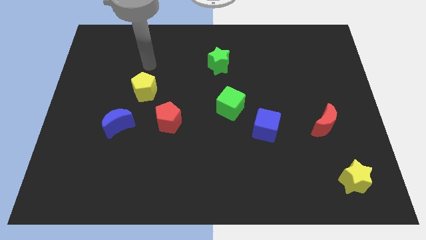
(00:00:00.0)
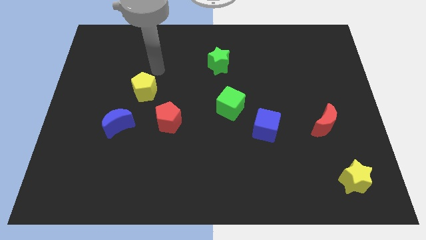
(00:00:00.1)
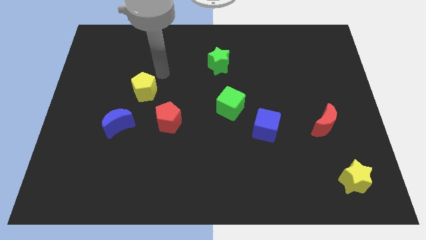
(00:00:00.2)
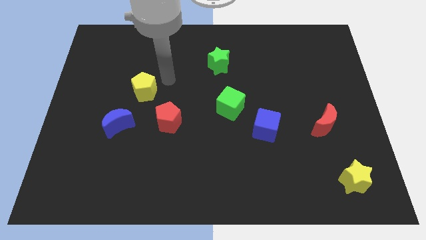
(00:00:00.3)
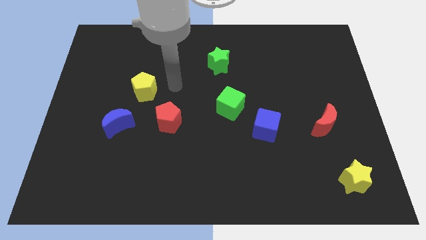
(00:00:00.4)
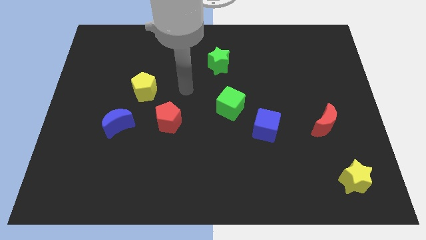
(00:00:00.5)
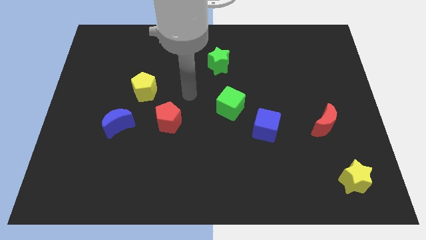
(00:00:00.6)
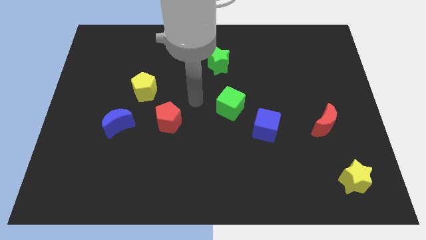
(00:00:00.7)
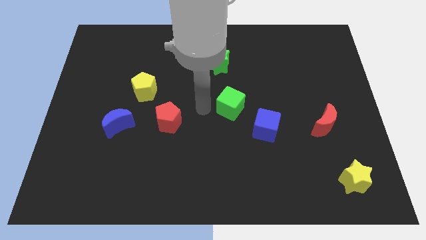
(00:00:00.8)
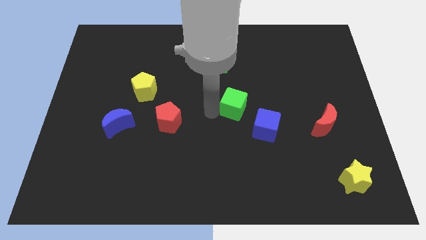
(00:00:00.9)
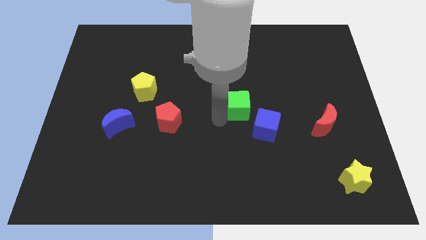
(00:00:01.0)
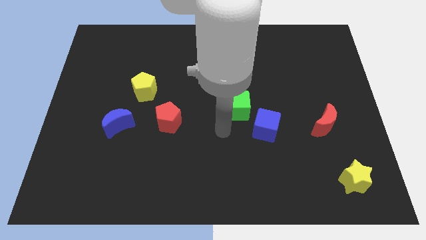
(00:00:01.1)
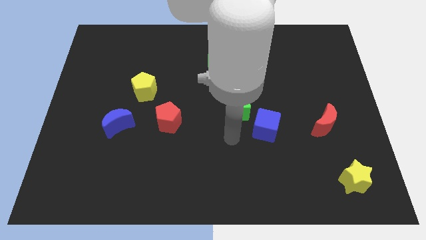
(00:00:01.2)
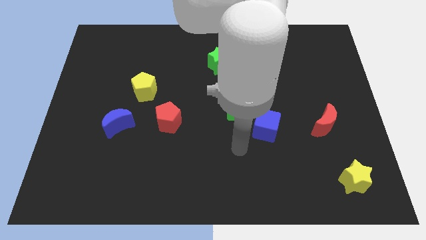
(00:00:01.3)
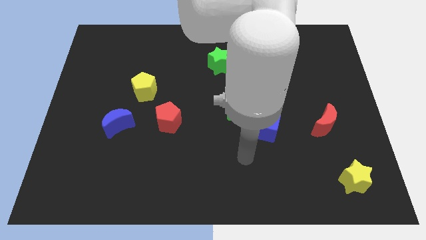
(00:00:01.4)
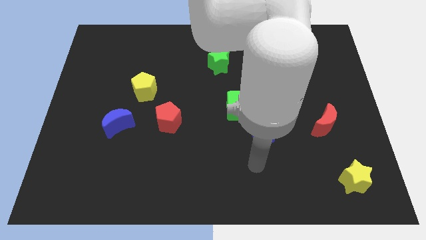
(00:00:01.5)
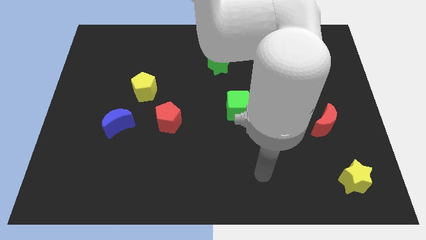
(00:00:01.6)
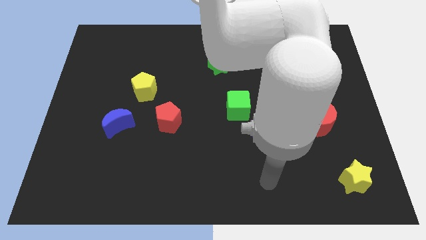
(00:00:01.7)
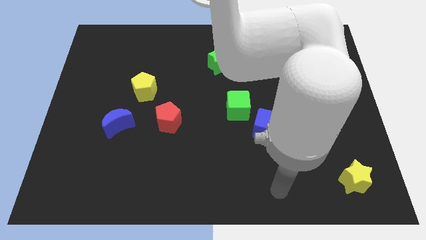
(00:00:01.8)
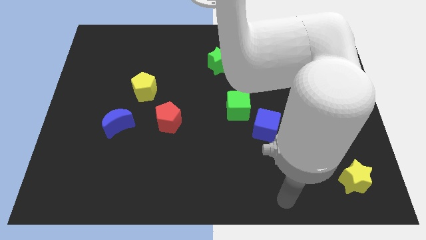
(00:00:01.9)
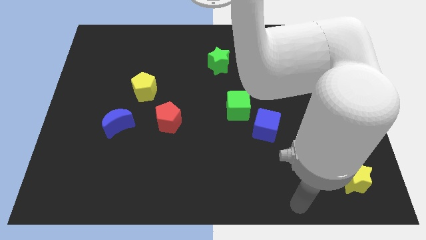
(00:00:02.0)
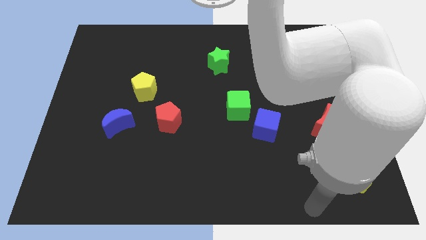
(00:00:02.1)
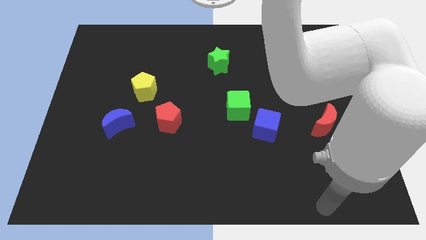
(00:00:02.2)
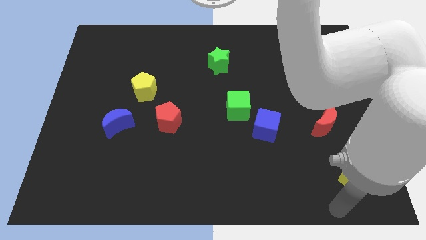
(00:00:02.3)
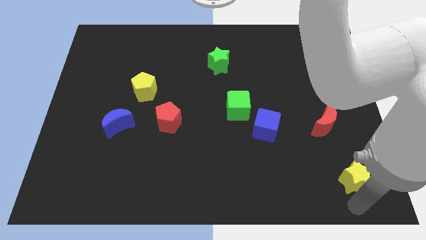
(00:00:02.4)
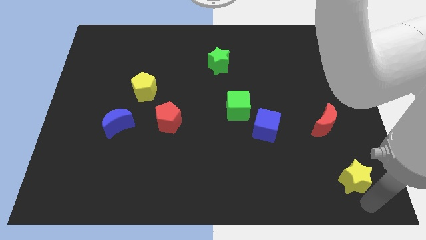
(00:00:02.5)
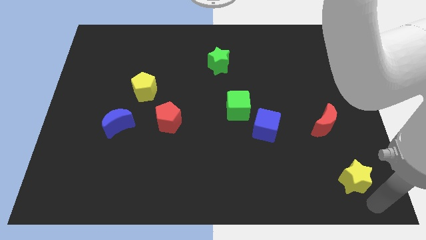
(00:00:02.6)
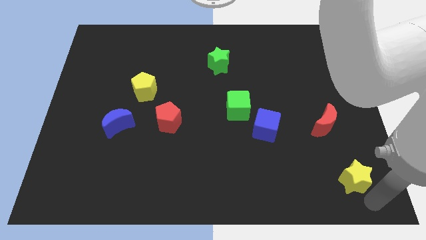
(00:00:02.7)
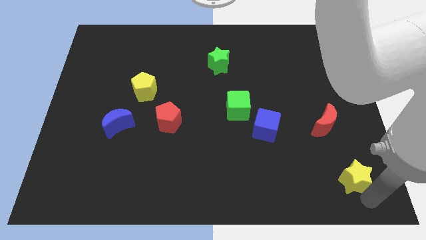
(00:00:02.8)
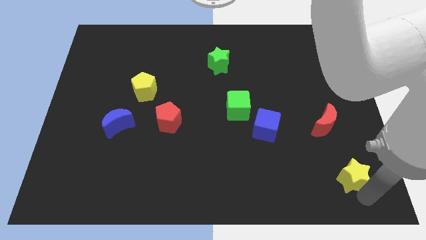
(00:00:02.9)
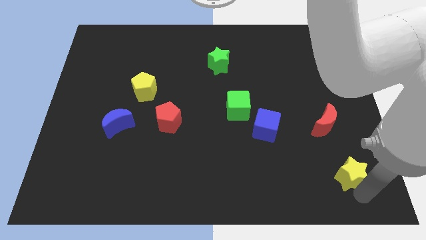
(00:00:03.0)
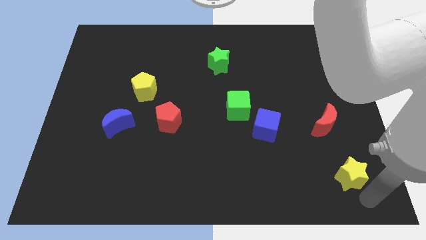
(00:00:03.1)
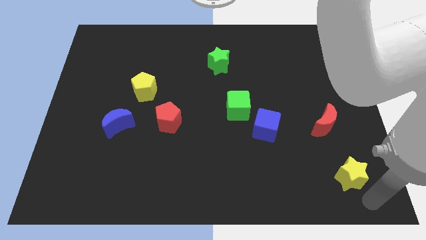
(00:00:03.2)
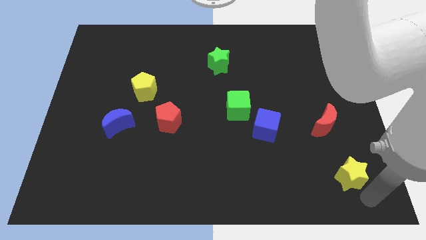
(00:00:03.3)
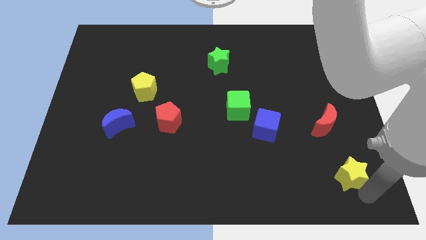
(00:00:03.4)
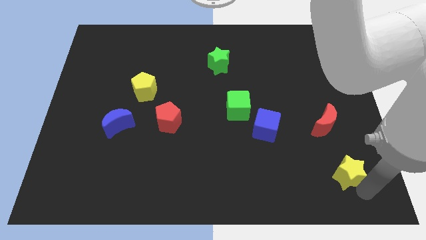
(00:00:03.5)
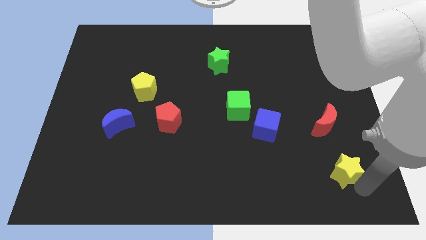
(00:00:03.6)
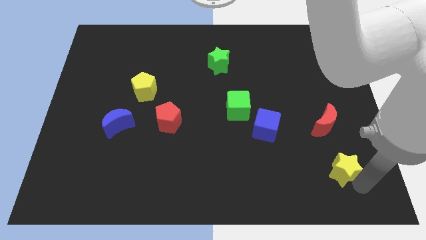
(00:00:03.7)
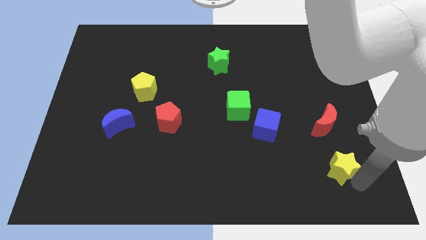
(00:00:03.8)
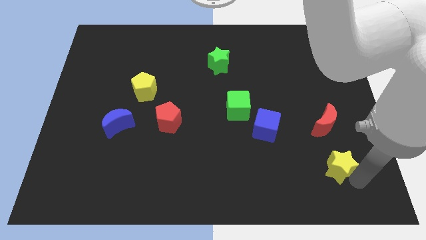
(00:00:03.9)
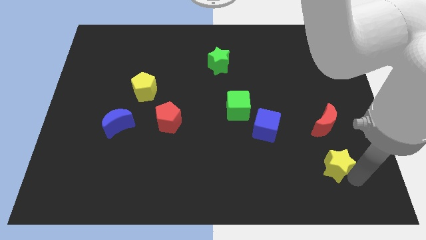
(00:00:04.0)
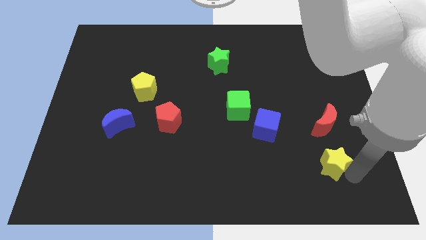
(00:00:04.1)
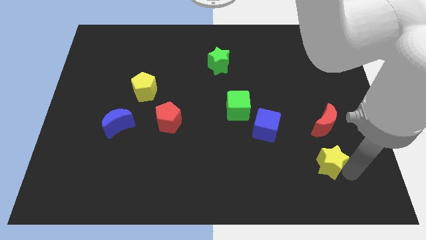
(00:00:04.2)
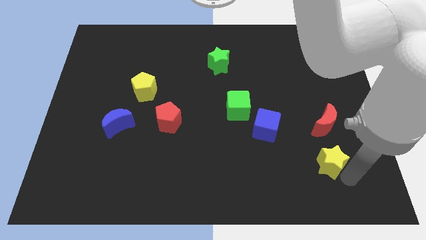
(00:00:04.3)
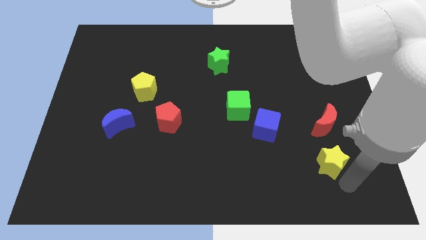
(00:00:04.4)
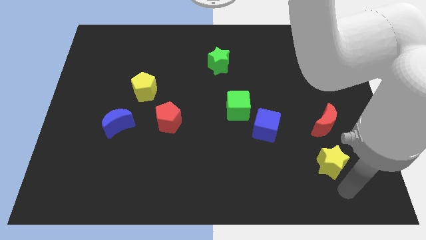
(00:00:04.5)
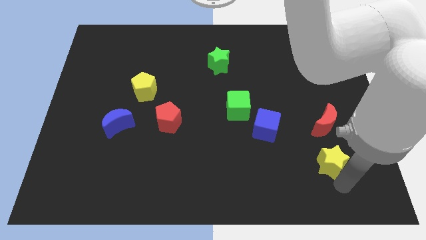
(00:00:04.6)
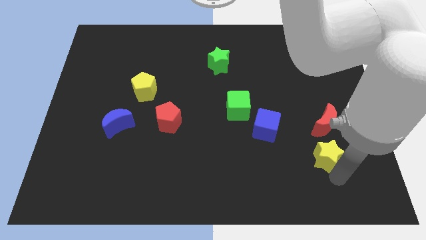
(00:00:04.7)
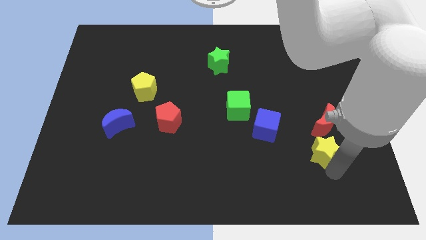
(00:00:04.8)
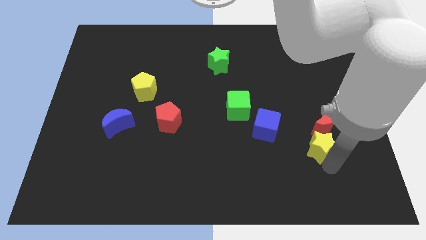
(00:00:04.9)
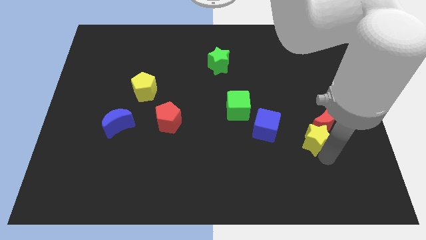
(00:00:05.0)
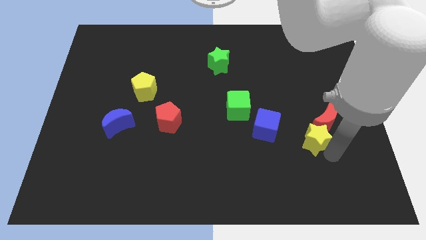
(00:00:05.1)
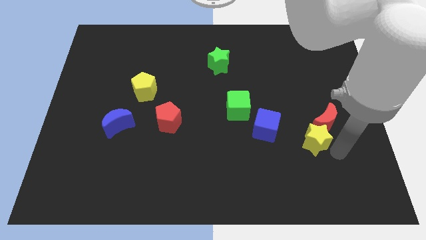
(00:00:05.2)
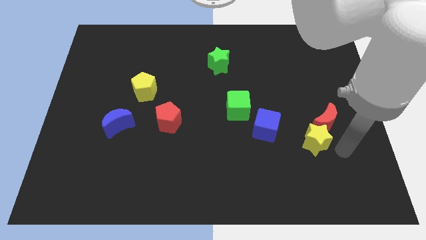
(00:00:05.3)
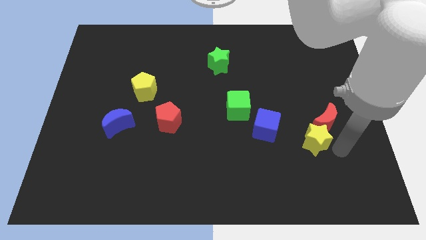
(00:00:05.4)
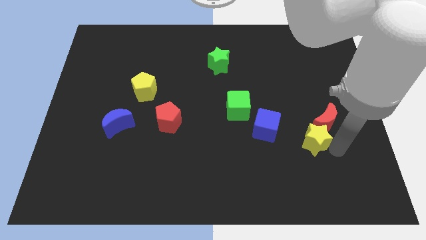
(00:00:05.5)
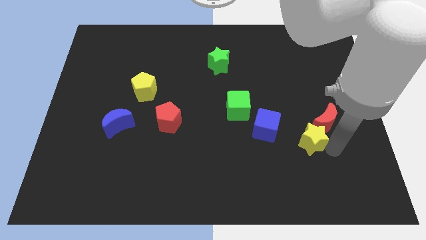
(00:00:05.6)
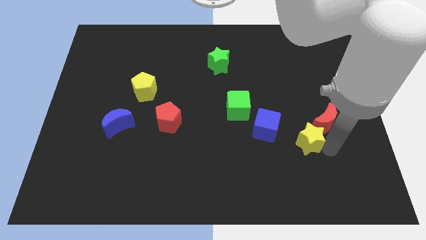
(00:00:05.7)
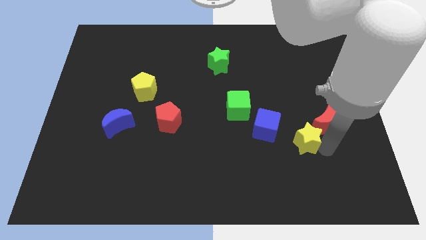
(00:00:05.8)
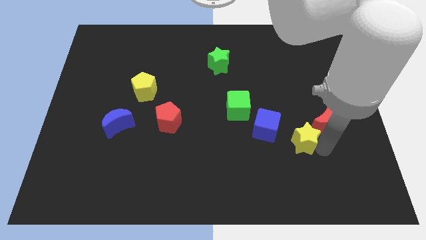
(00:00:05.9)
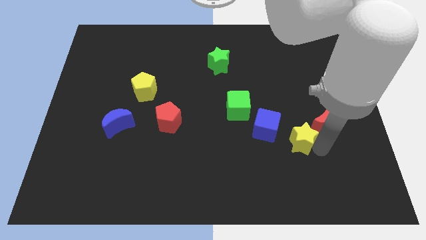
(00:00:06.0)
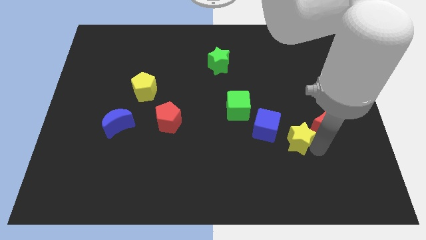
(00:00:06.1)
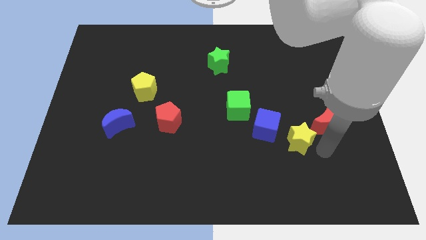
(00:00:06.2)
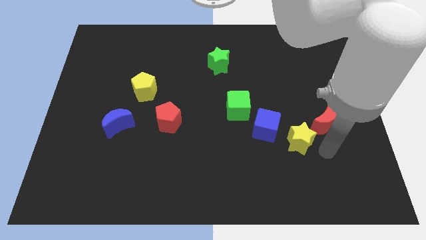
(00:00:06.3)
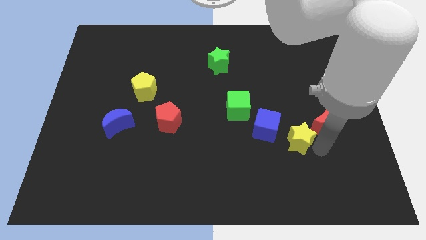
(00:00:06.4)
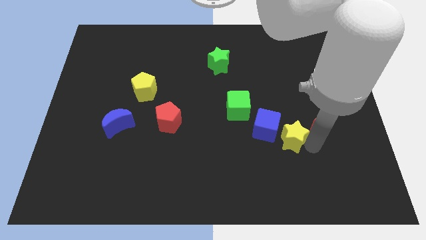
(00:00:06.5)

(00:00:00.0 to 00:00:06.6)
move the yellow star close to the blue cube

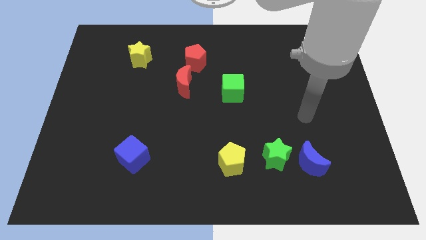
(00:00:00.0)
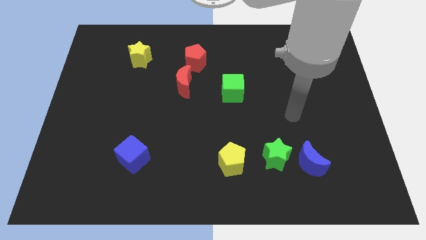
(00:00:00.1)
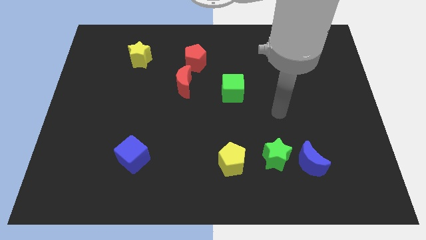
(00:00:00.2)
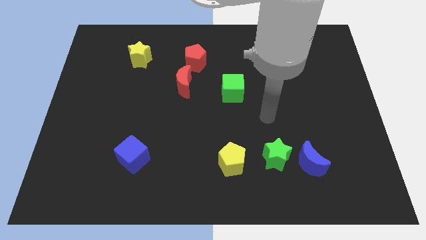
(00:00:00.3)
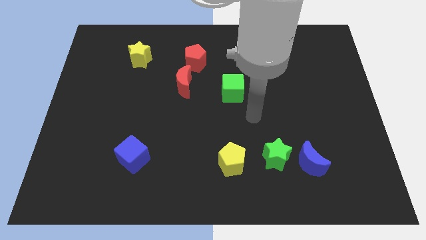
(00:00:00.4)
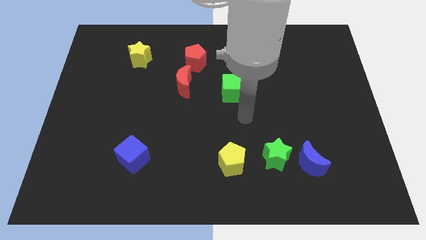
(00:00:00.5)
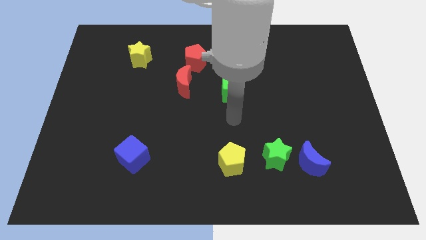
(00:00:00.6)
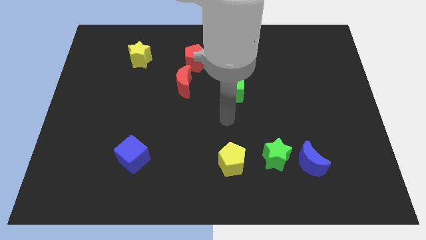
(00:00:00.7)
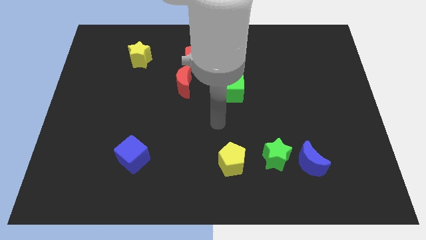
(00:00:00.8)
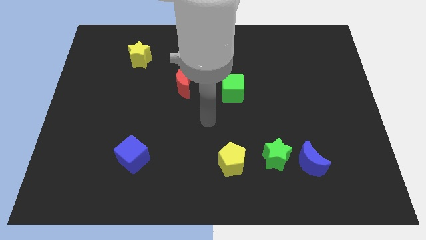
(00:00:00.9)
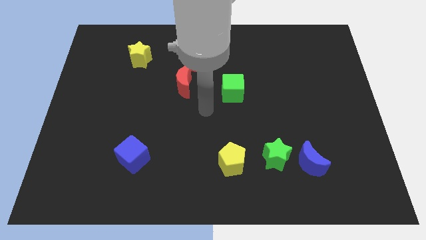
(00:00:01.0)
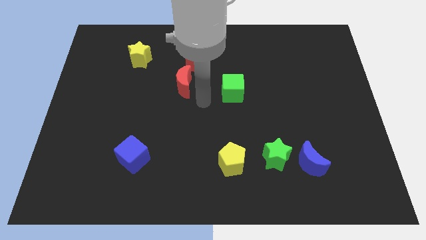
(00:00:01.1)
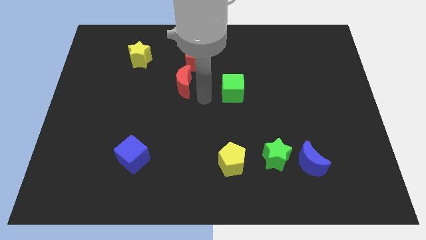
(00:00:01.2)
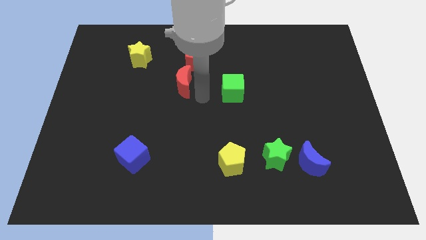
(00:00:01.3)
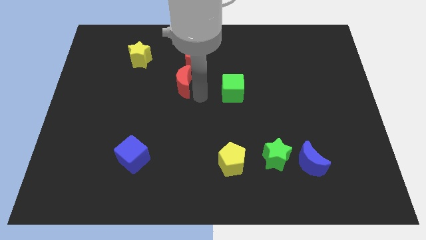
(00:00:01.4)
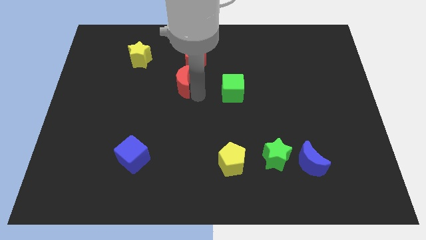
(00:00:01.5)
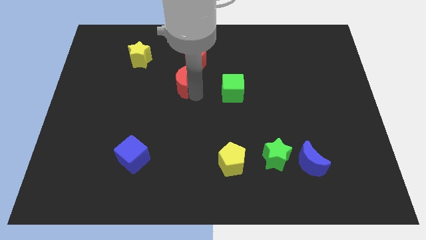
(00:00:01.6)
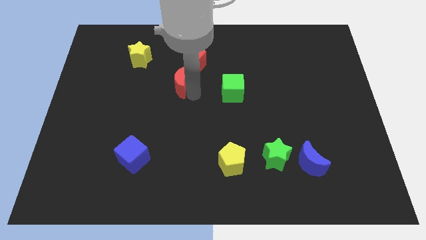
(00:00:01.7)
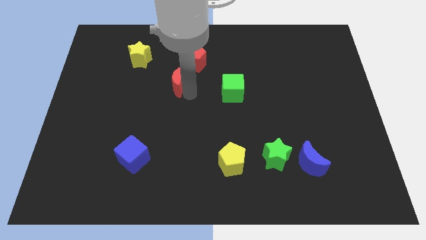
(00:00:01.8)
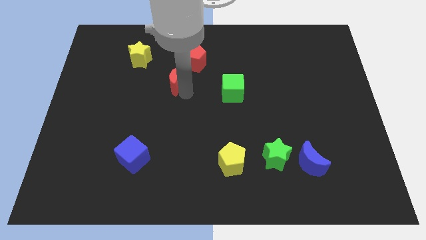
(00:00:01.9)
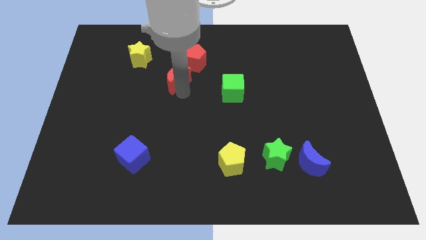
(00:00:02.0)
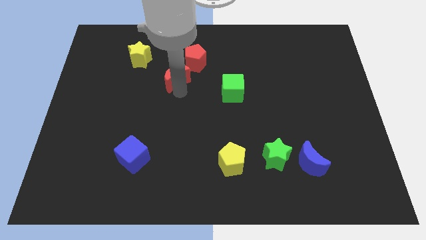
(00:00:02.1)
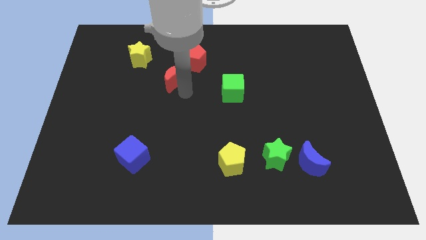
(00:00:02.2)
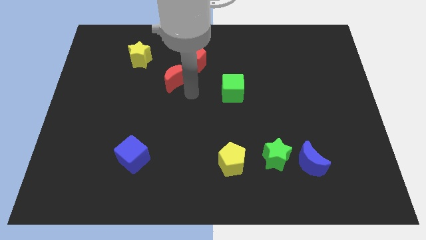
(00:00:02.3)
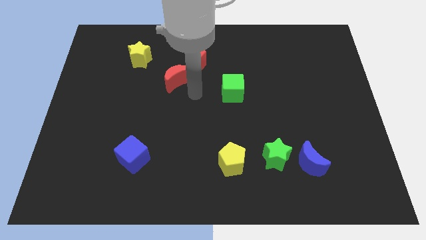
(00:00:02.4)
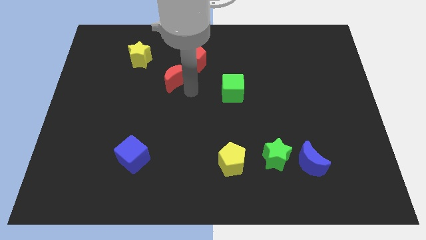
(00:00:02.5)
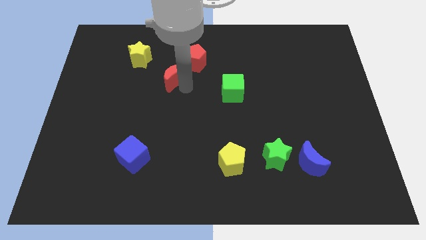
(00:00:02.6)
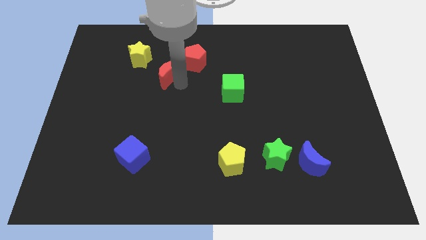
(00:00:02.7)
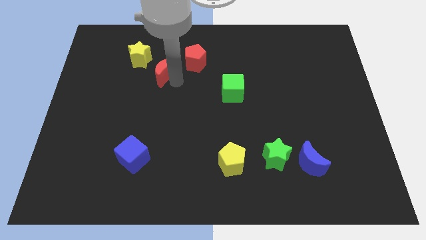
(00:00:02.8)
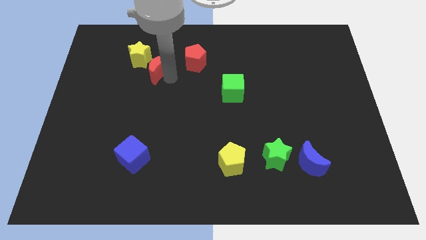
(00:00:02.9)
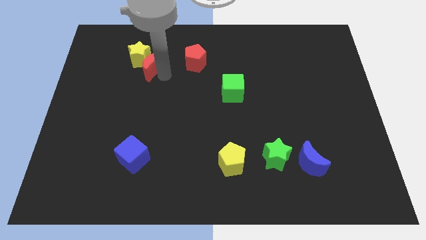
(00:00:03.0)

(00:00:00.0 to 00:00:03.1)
slide the red moon towards the yellow star
